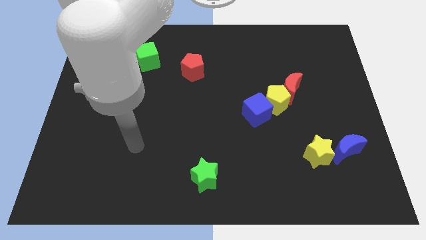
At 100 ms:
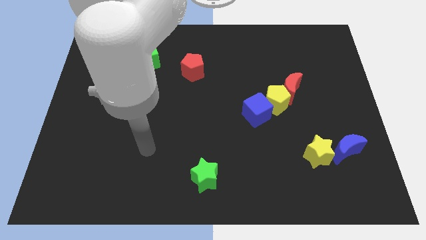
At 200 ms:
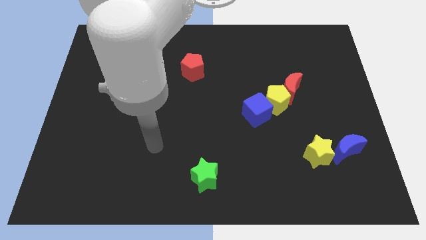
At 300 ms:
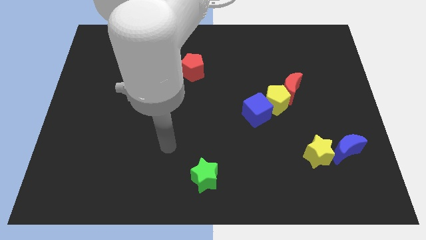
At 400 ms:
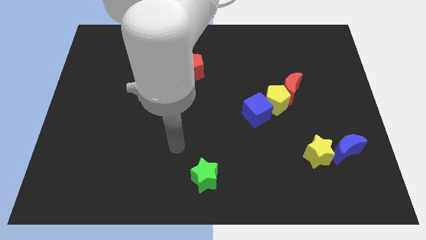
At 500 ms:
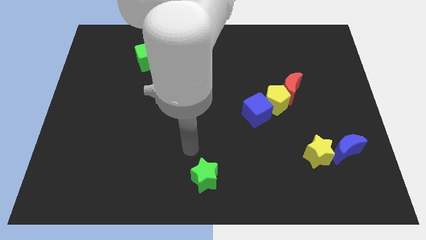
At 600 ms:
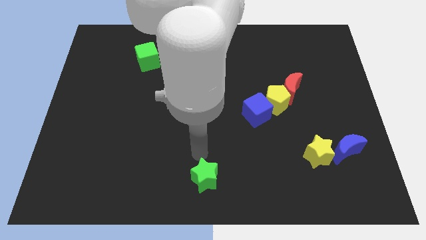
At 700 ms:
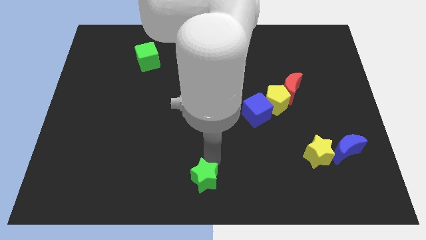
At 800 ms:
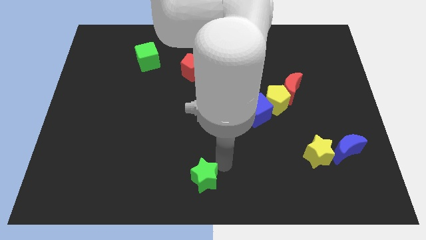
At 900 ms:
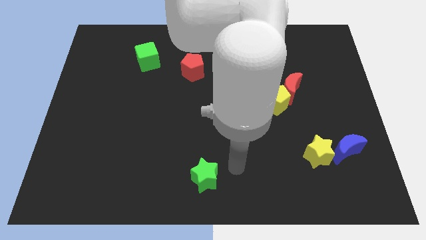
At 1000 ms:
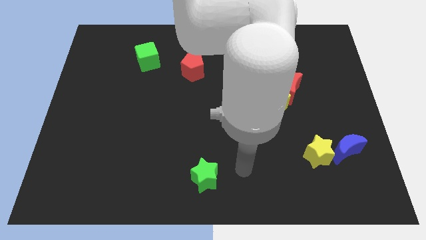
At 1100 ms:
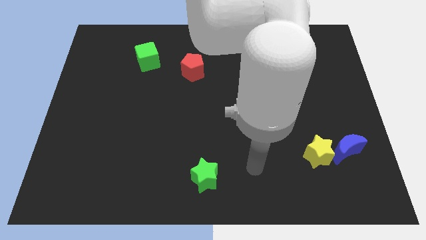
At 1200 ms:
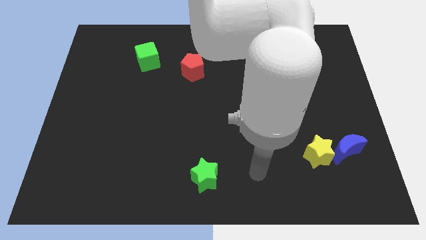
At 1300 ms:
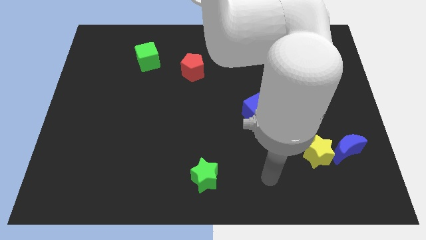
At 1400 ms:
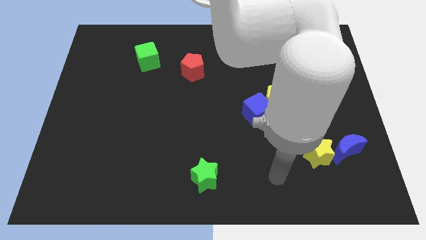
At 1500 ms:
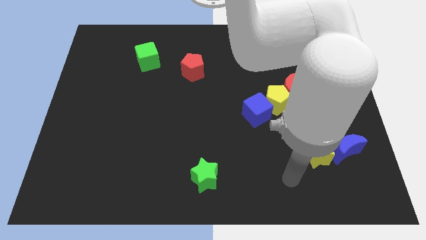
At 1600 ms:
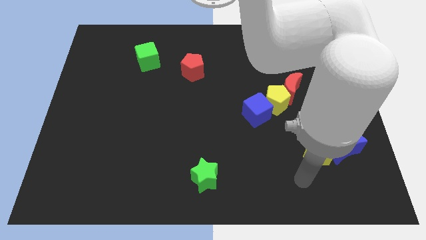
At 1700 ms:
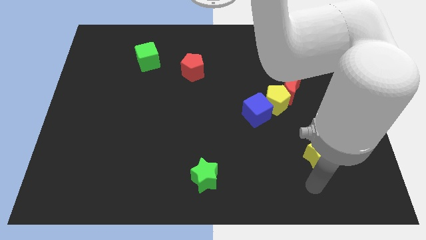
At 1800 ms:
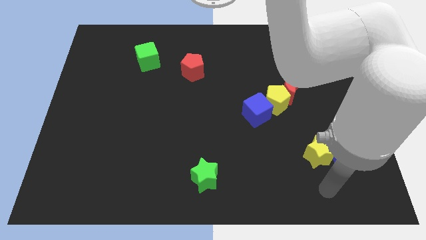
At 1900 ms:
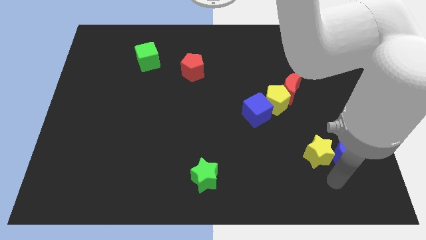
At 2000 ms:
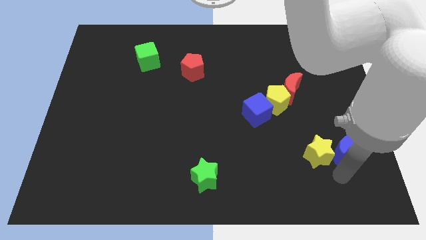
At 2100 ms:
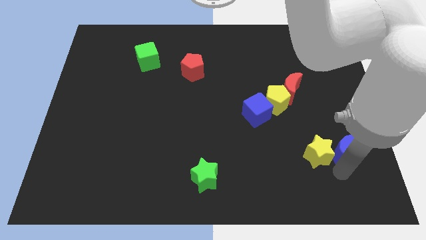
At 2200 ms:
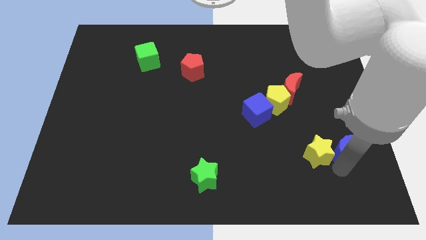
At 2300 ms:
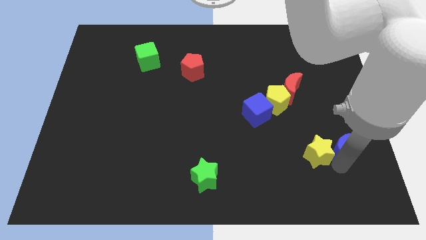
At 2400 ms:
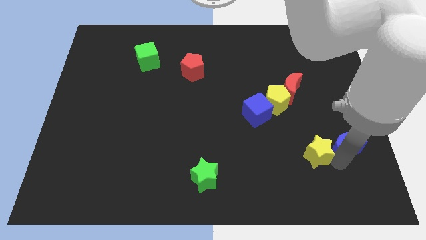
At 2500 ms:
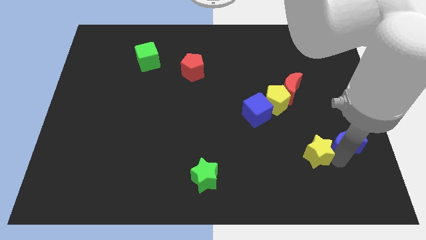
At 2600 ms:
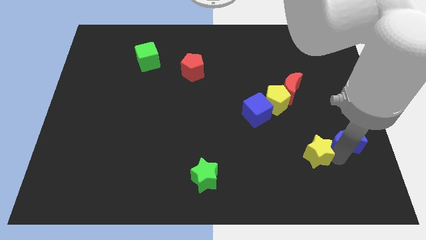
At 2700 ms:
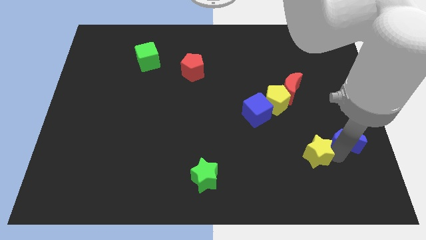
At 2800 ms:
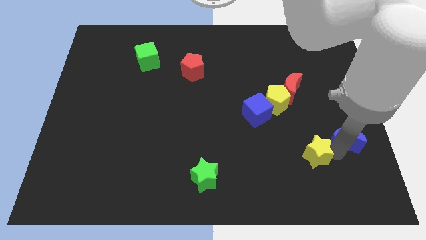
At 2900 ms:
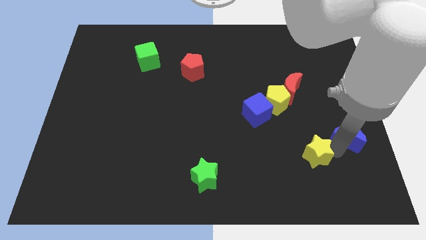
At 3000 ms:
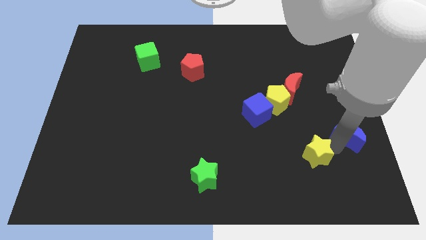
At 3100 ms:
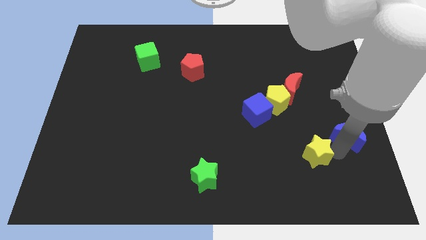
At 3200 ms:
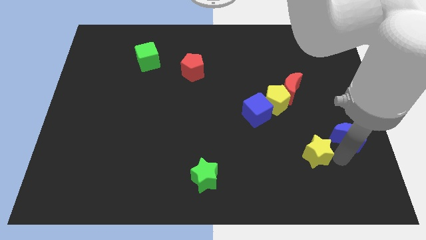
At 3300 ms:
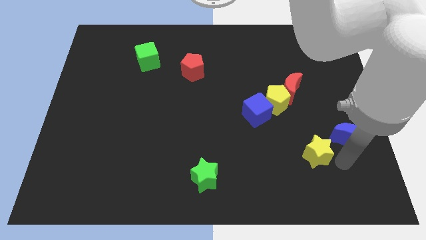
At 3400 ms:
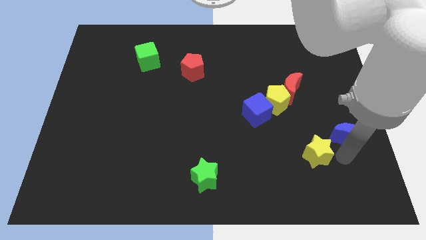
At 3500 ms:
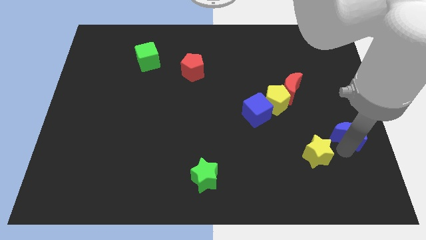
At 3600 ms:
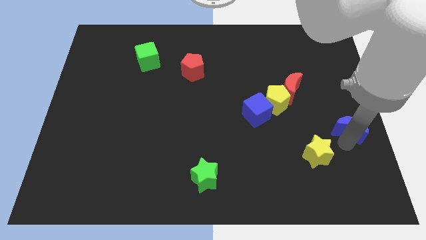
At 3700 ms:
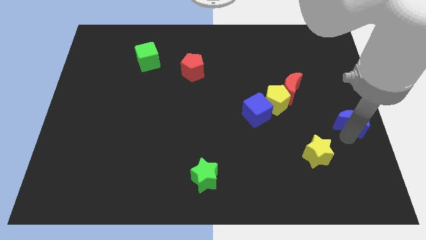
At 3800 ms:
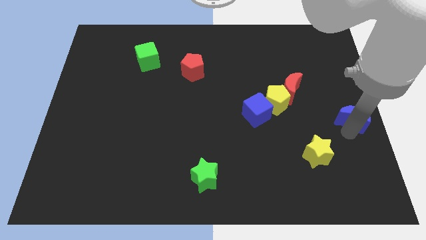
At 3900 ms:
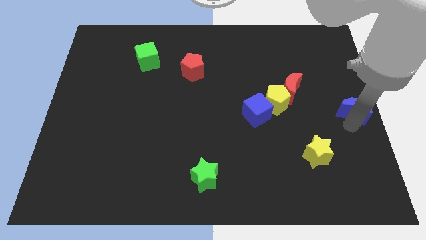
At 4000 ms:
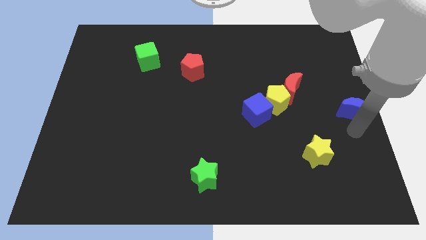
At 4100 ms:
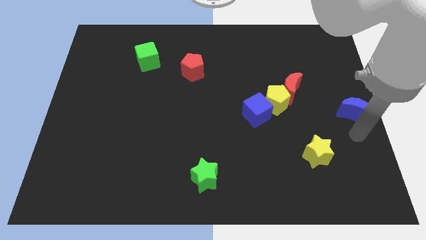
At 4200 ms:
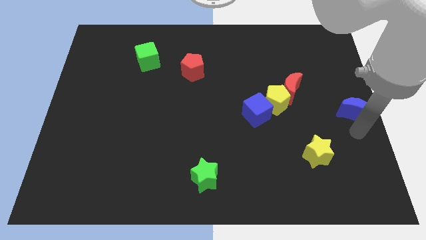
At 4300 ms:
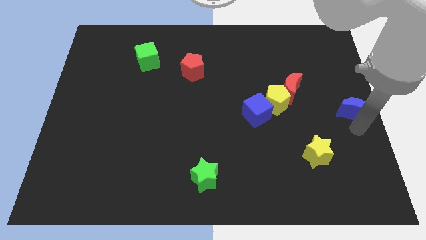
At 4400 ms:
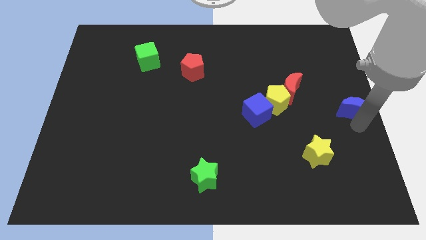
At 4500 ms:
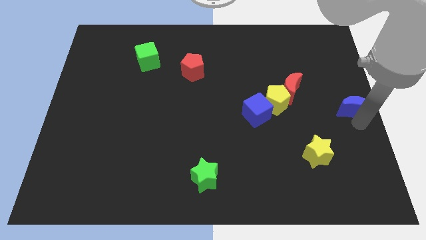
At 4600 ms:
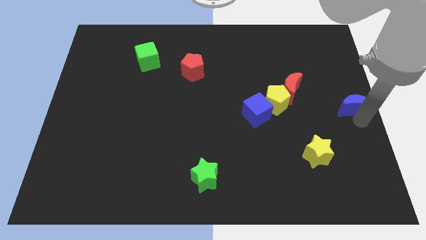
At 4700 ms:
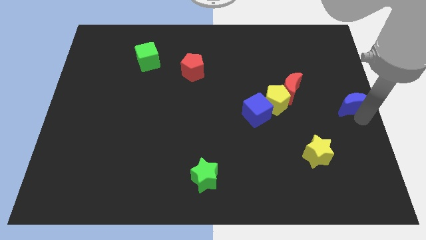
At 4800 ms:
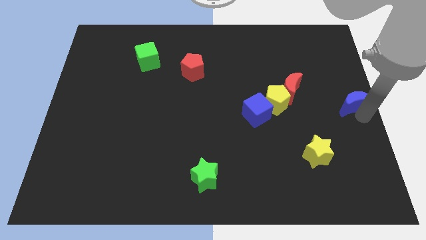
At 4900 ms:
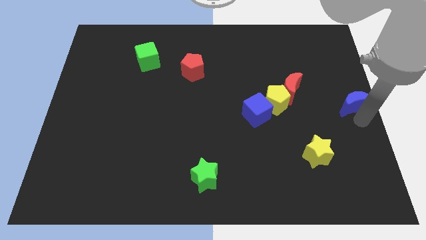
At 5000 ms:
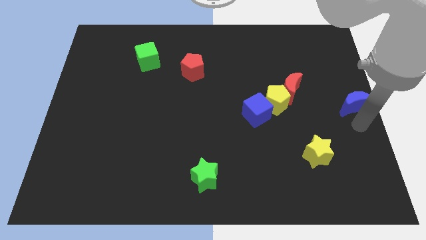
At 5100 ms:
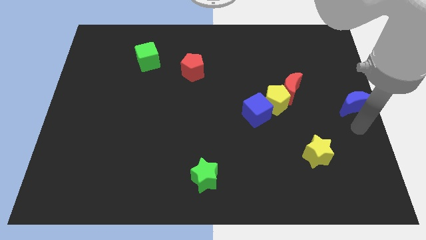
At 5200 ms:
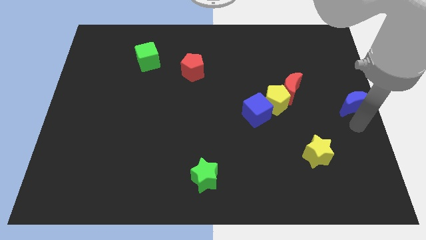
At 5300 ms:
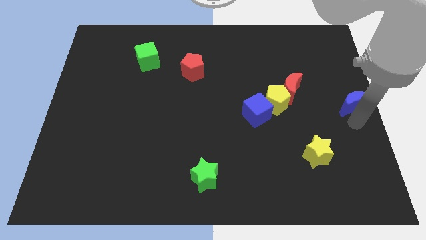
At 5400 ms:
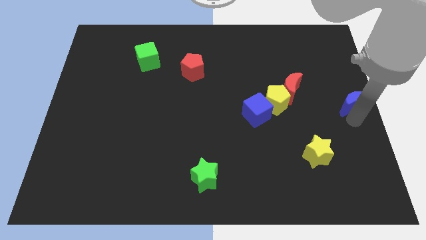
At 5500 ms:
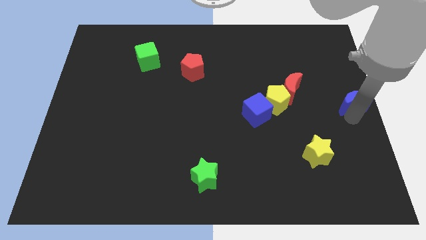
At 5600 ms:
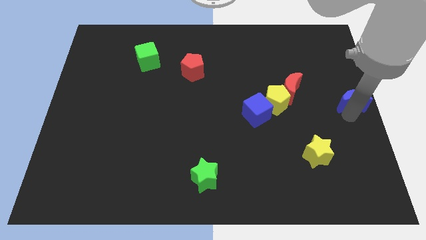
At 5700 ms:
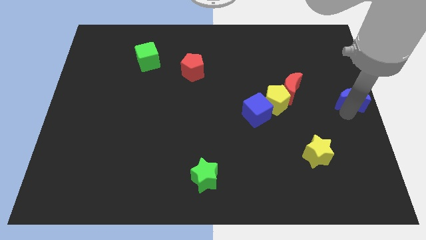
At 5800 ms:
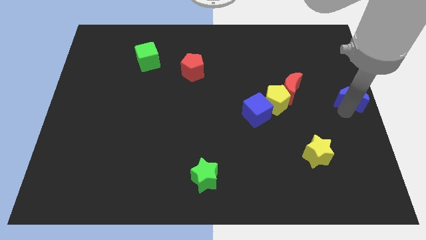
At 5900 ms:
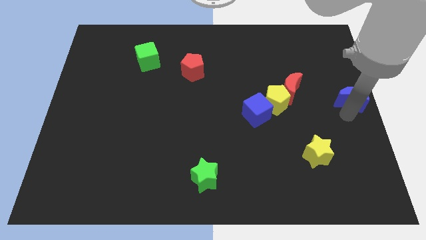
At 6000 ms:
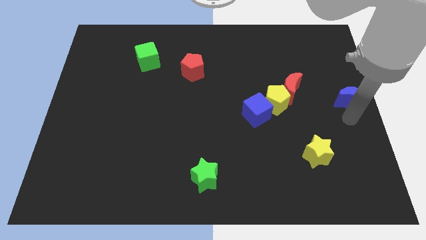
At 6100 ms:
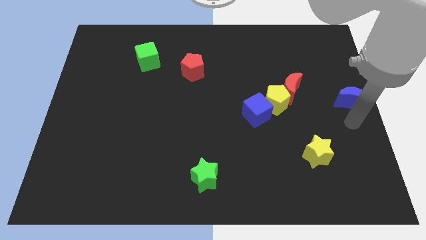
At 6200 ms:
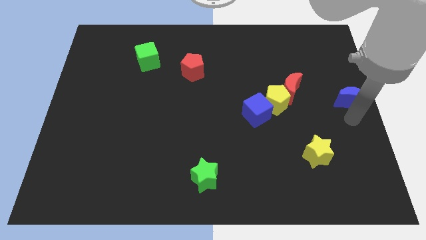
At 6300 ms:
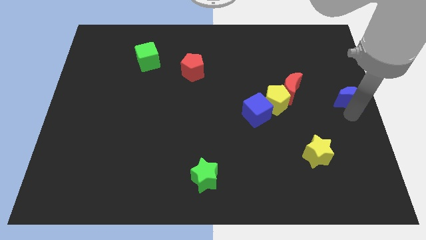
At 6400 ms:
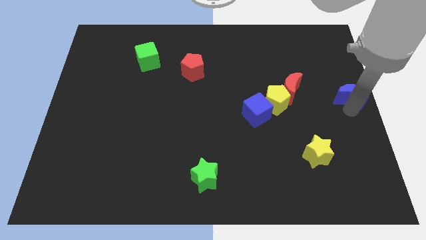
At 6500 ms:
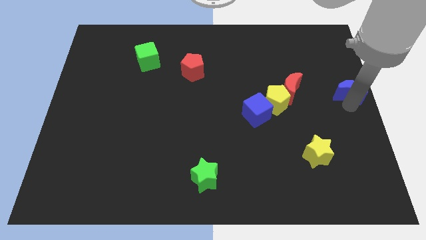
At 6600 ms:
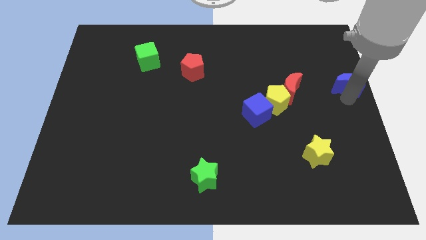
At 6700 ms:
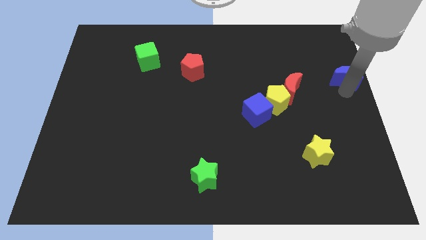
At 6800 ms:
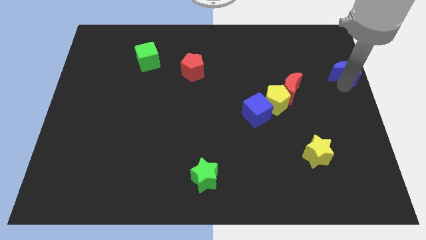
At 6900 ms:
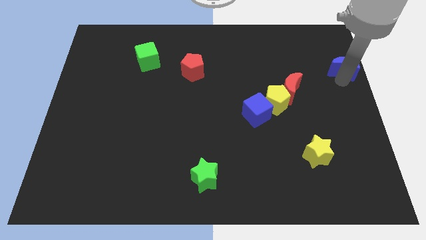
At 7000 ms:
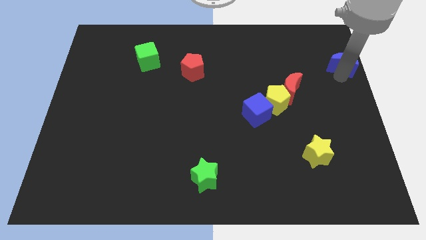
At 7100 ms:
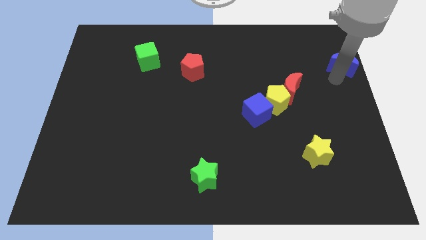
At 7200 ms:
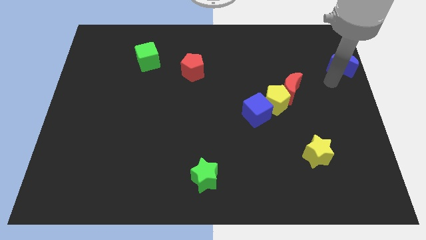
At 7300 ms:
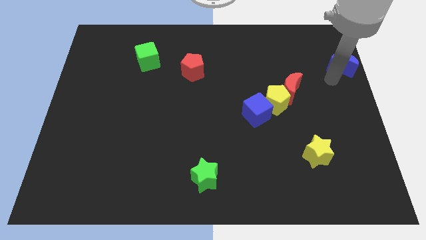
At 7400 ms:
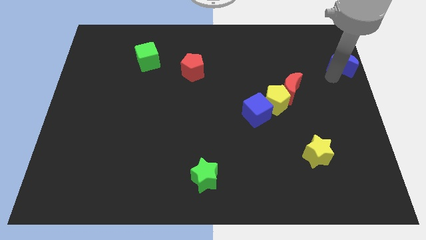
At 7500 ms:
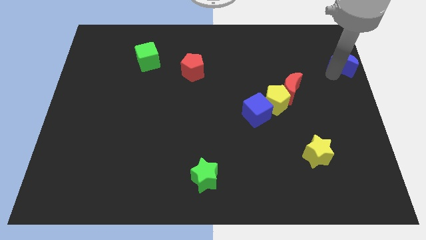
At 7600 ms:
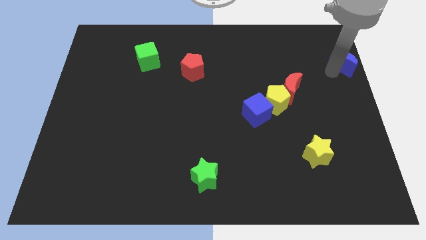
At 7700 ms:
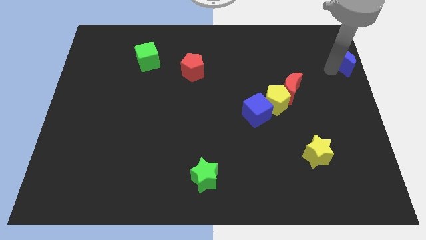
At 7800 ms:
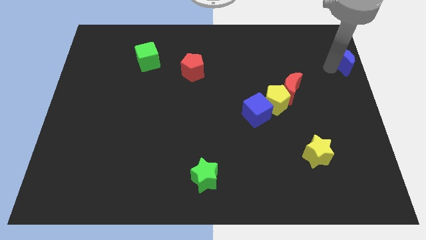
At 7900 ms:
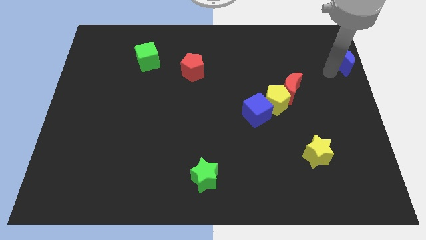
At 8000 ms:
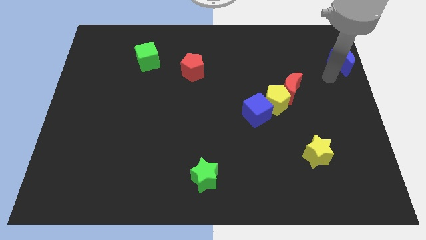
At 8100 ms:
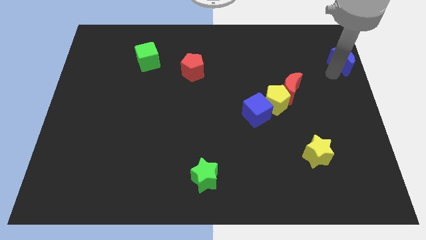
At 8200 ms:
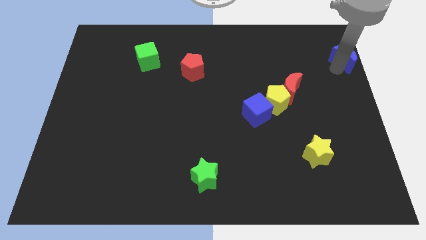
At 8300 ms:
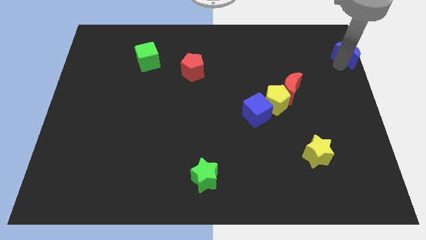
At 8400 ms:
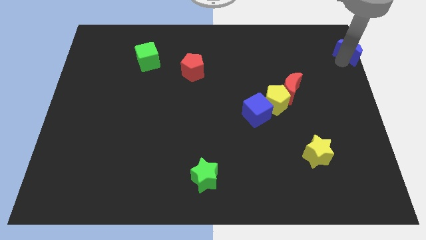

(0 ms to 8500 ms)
put the blue moon to the upper right corner
